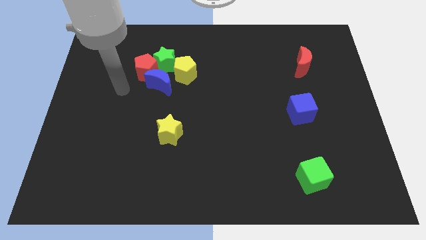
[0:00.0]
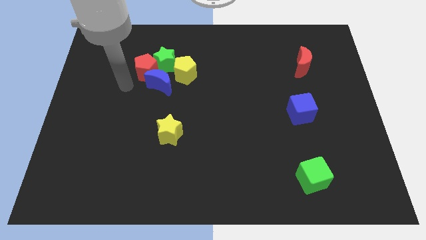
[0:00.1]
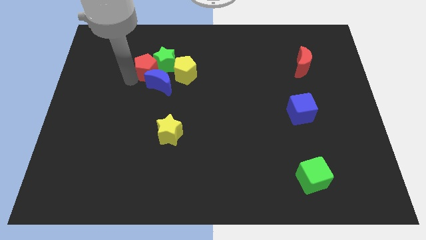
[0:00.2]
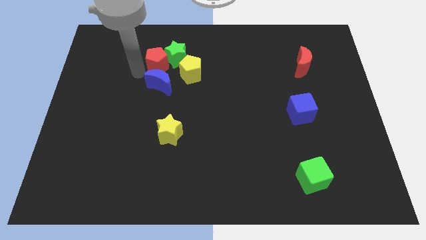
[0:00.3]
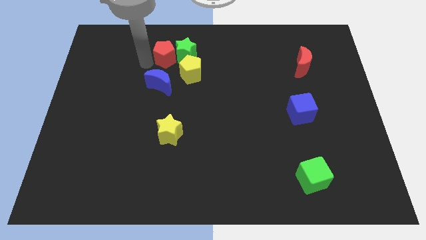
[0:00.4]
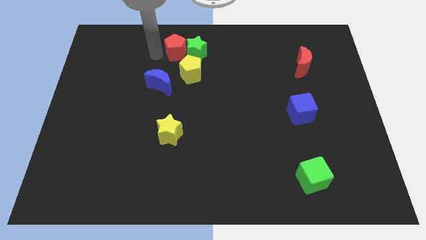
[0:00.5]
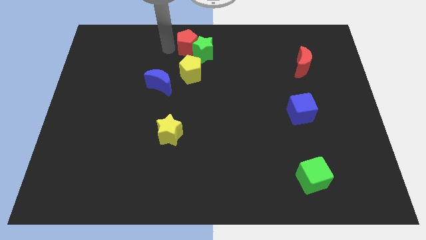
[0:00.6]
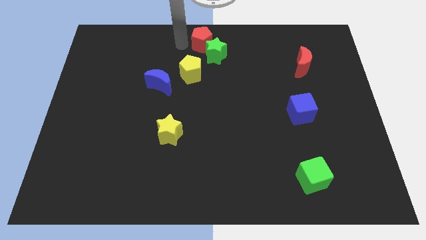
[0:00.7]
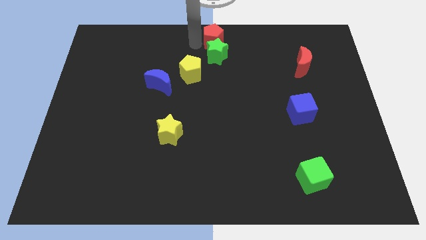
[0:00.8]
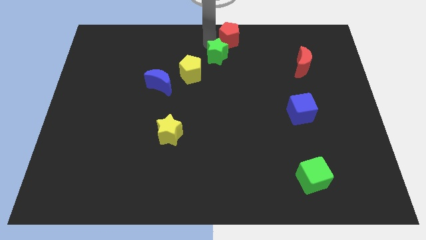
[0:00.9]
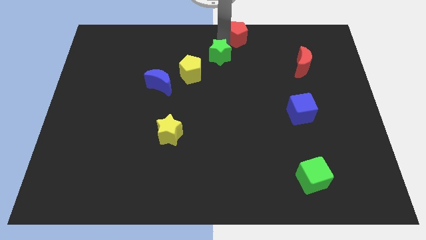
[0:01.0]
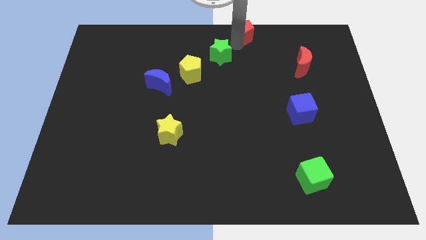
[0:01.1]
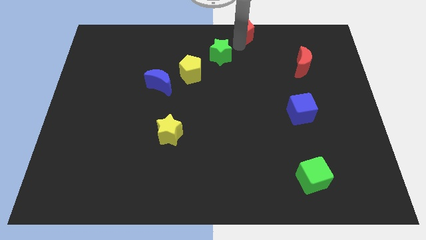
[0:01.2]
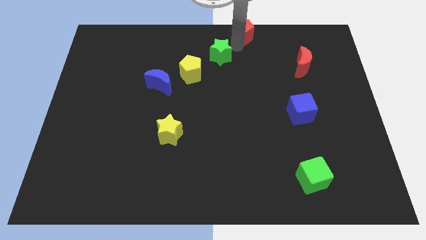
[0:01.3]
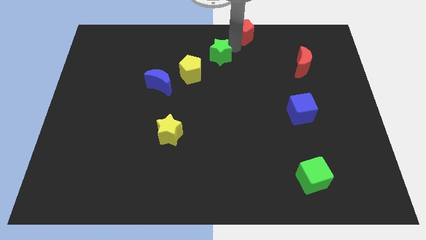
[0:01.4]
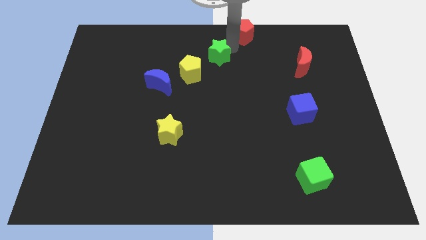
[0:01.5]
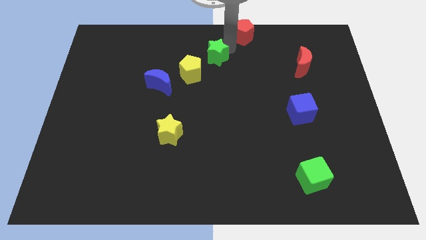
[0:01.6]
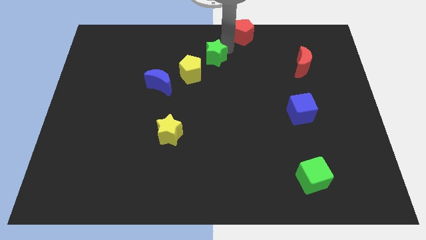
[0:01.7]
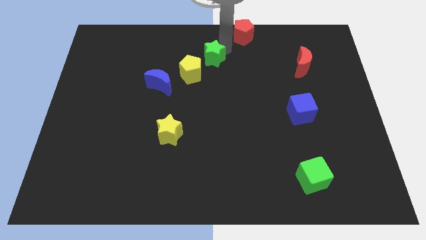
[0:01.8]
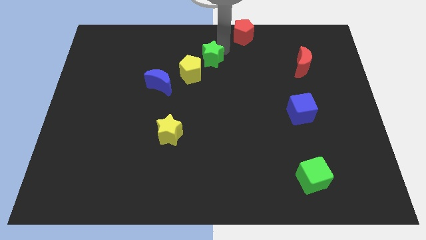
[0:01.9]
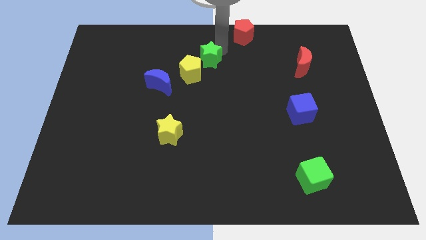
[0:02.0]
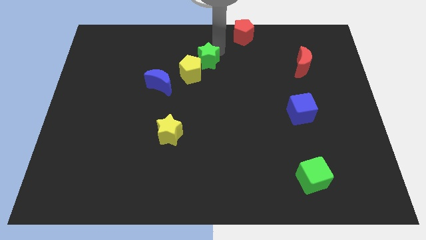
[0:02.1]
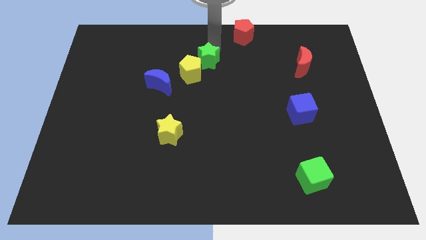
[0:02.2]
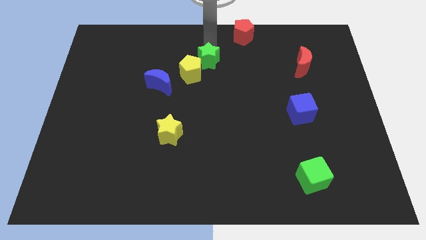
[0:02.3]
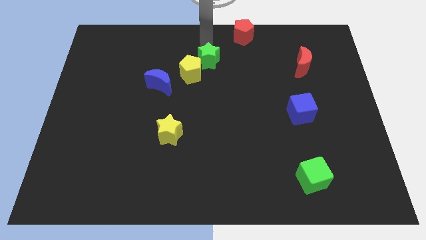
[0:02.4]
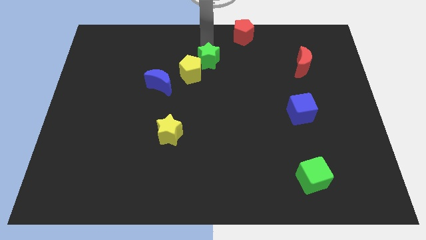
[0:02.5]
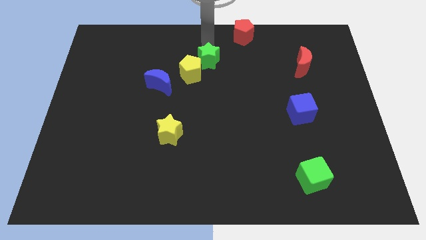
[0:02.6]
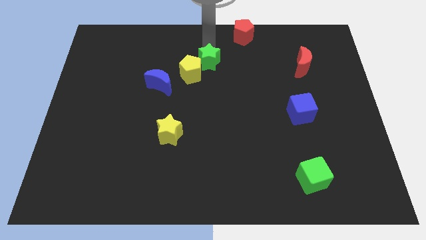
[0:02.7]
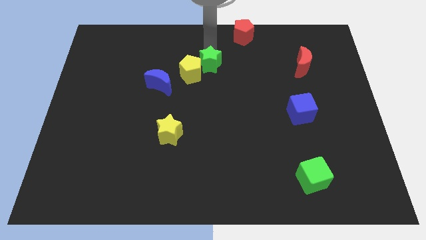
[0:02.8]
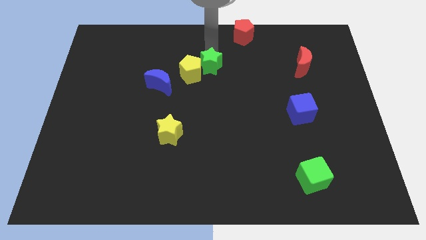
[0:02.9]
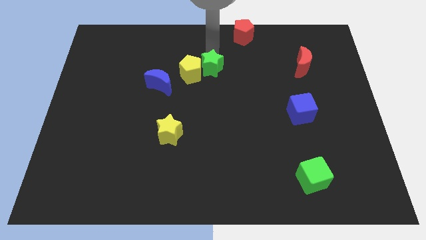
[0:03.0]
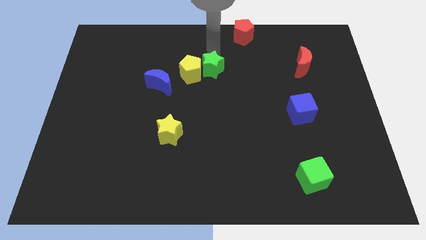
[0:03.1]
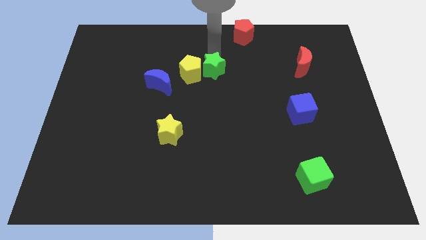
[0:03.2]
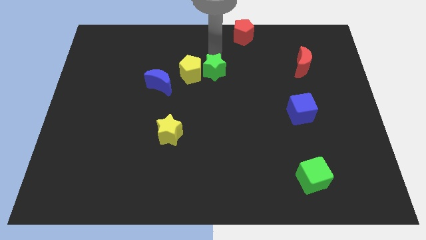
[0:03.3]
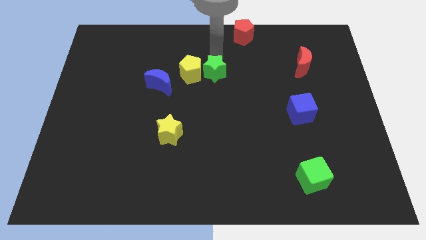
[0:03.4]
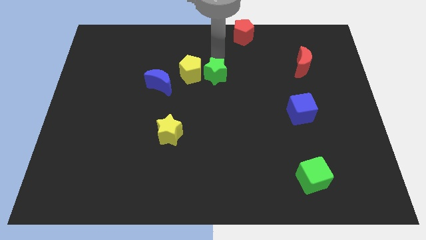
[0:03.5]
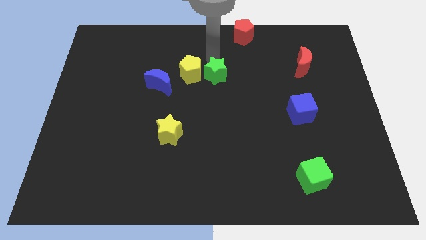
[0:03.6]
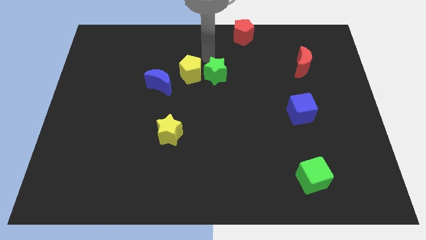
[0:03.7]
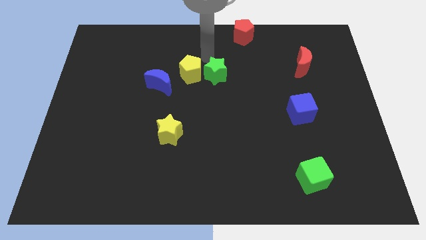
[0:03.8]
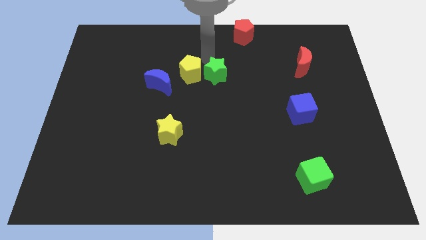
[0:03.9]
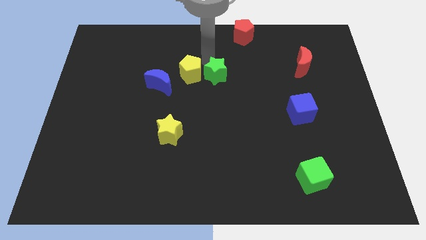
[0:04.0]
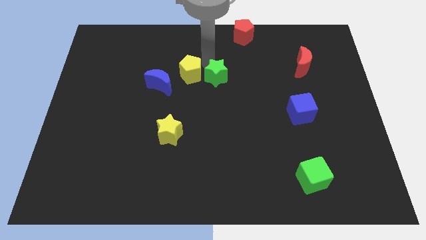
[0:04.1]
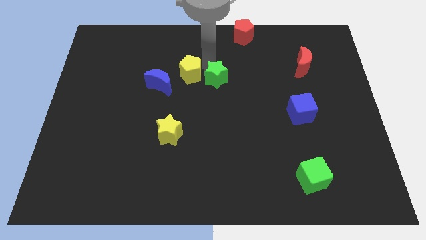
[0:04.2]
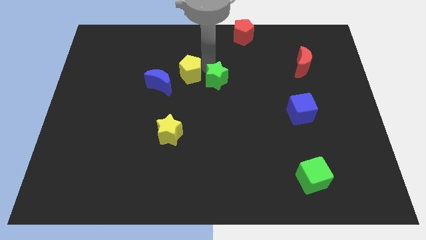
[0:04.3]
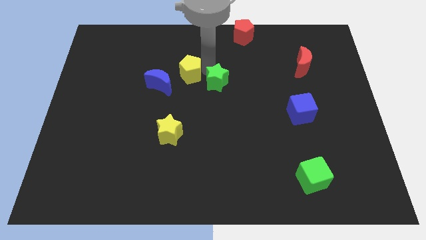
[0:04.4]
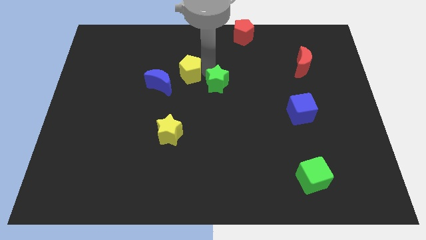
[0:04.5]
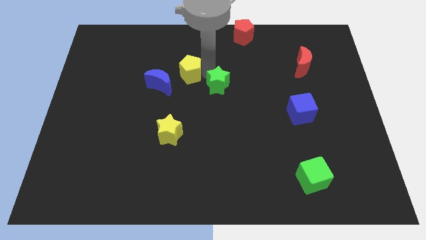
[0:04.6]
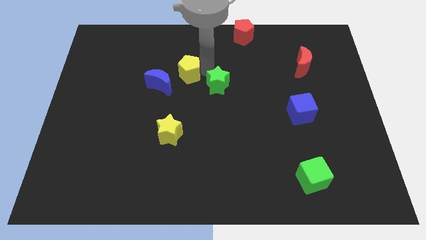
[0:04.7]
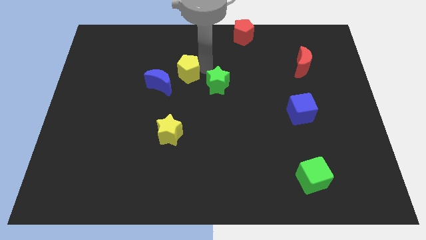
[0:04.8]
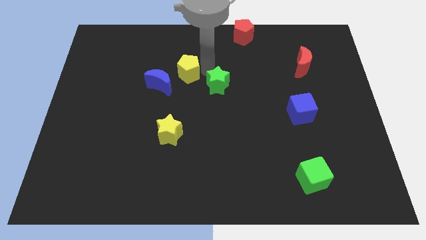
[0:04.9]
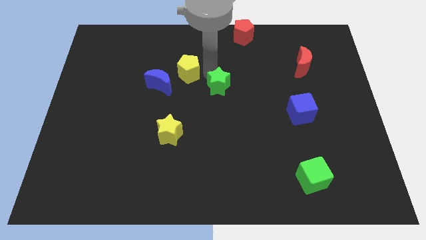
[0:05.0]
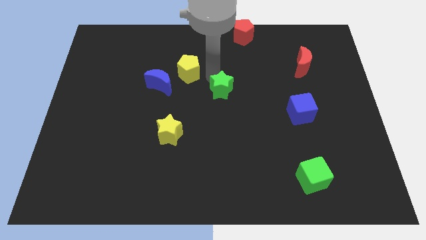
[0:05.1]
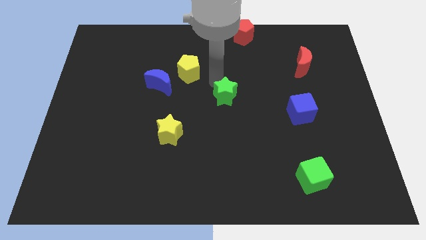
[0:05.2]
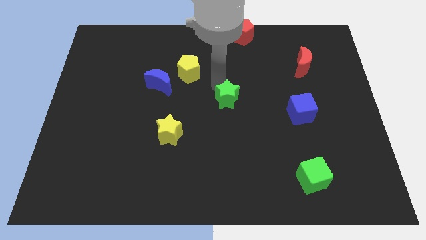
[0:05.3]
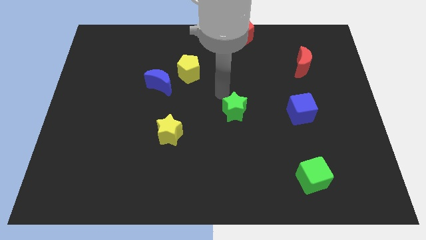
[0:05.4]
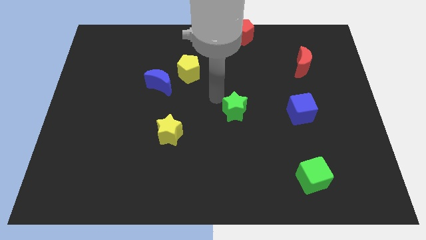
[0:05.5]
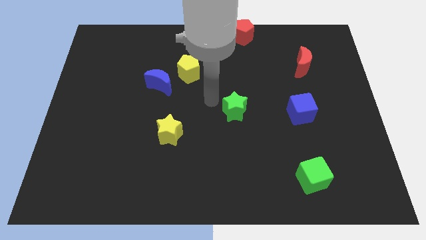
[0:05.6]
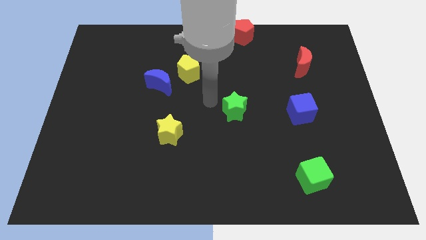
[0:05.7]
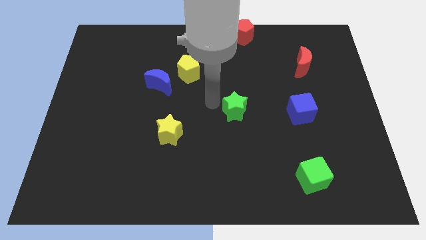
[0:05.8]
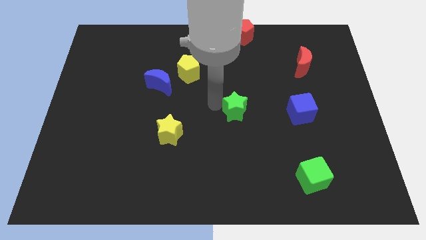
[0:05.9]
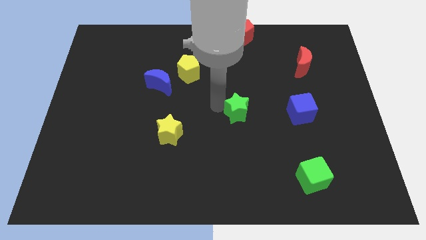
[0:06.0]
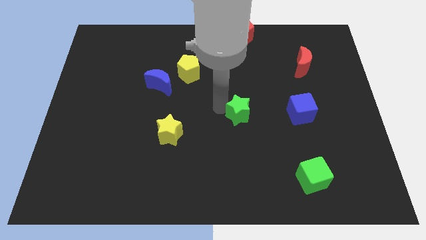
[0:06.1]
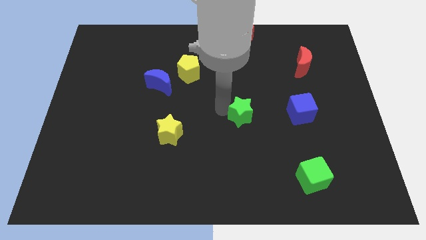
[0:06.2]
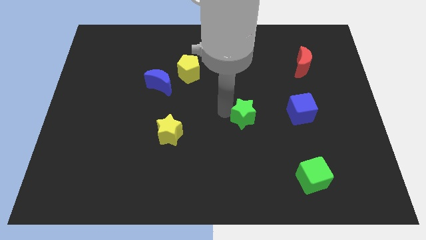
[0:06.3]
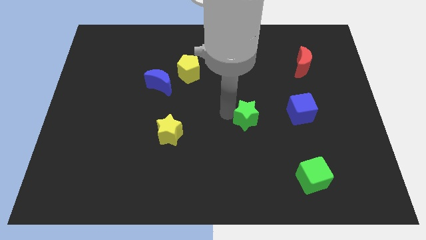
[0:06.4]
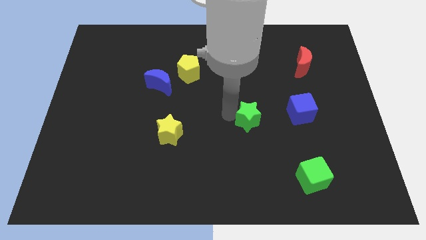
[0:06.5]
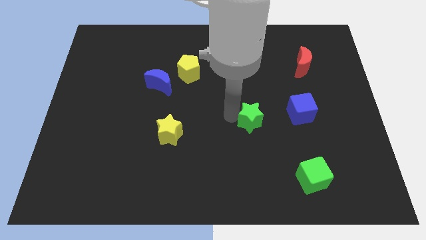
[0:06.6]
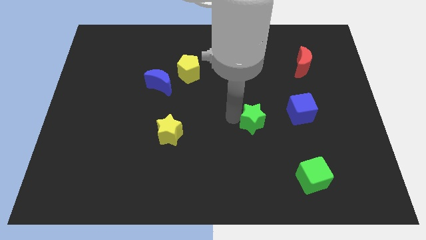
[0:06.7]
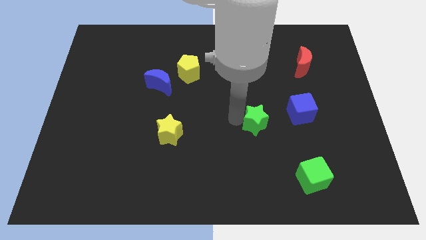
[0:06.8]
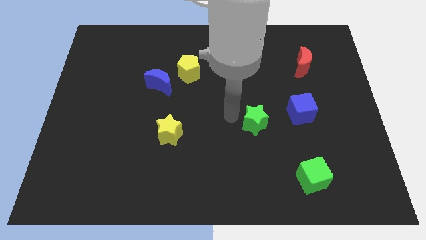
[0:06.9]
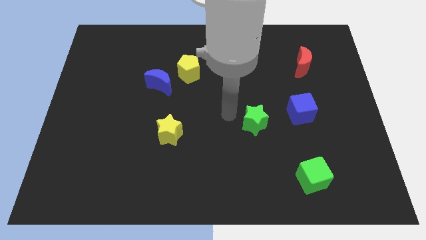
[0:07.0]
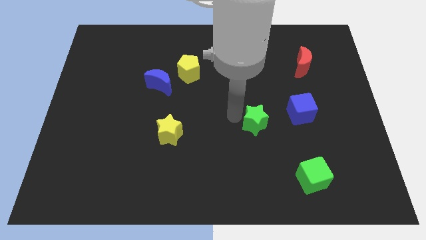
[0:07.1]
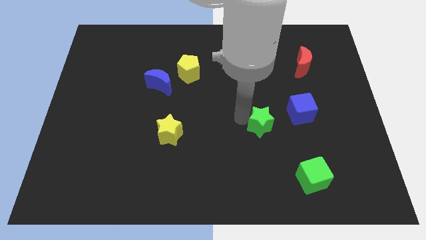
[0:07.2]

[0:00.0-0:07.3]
slide the green star to the bottom left side of the blue cube
